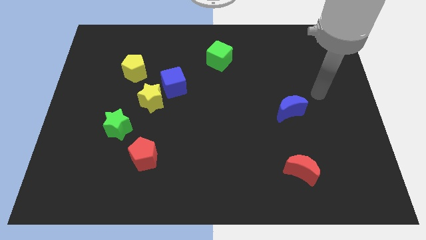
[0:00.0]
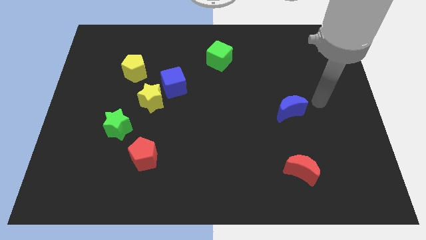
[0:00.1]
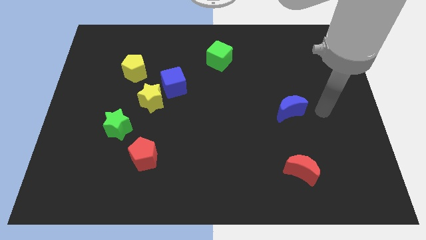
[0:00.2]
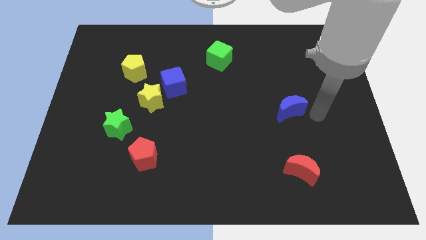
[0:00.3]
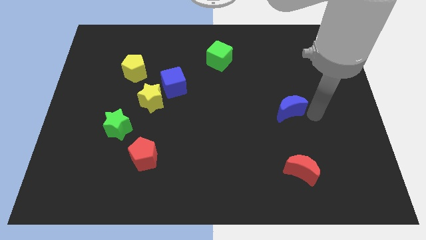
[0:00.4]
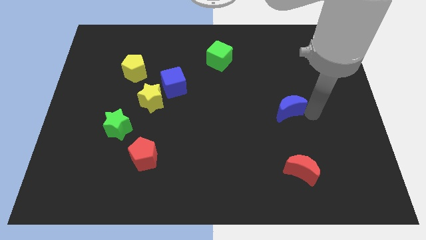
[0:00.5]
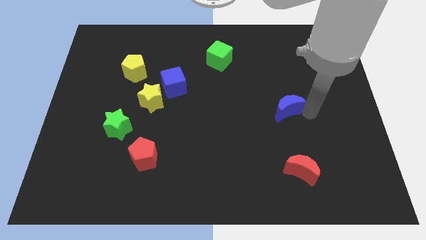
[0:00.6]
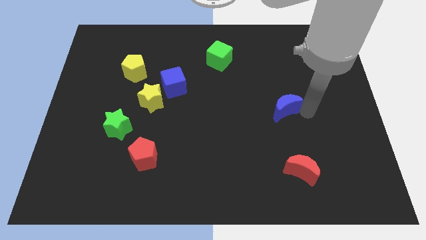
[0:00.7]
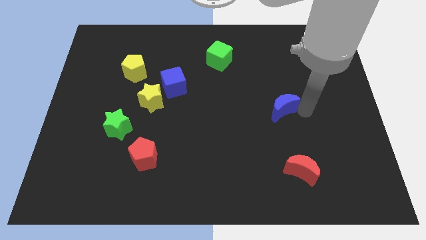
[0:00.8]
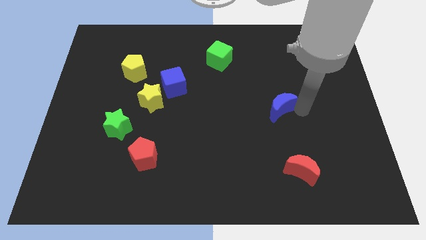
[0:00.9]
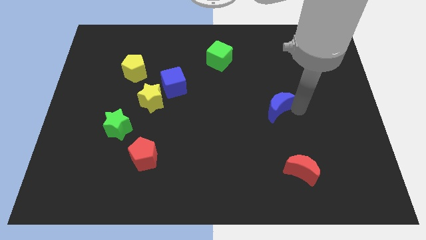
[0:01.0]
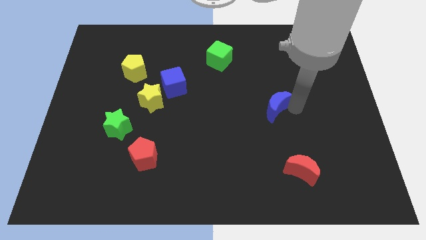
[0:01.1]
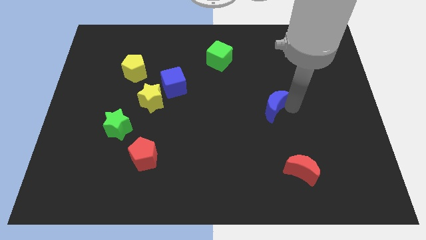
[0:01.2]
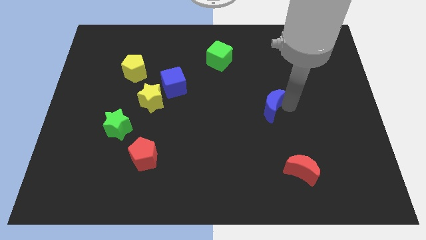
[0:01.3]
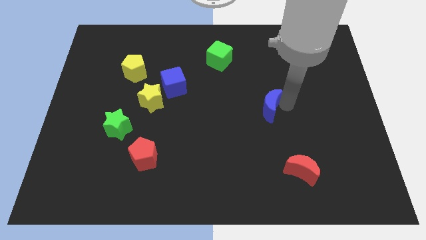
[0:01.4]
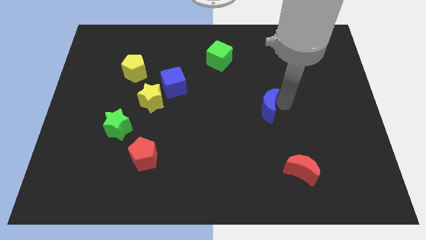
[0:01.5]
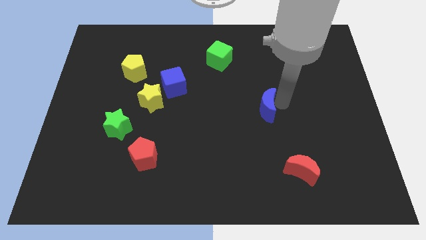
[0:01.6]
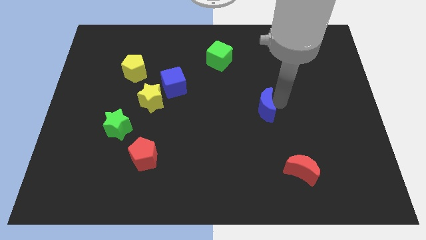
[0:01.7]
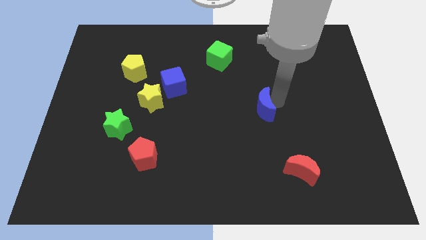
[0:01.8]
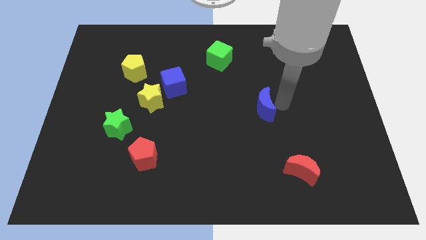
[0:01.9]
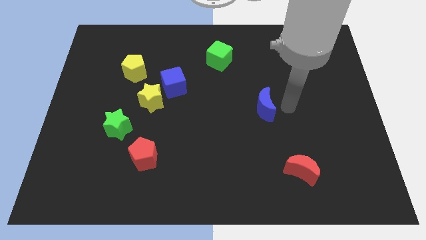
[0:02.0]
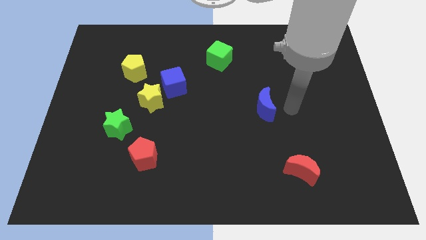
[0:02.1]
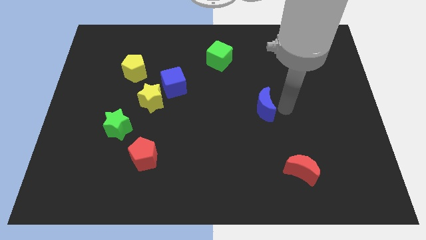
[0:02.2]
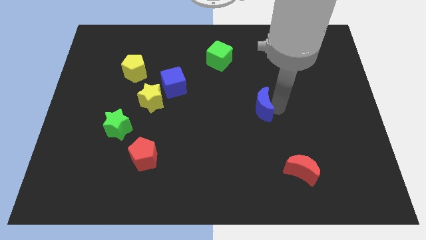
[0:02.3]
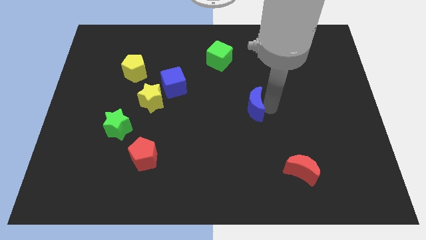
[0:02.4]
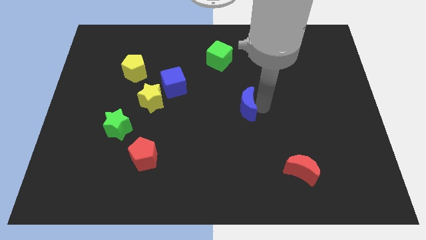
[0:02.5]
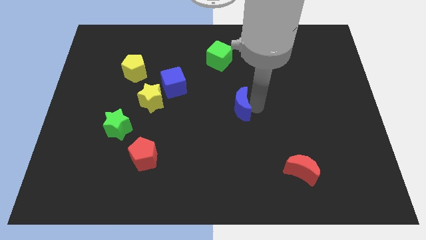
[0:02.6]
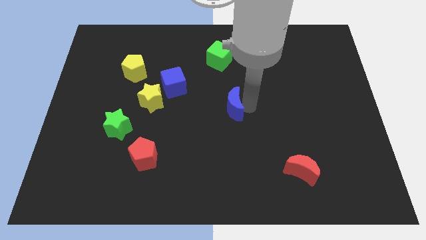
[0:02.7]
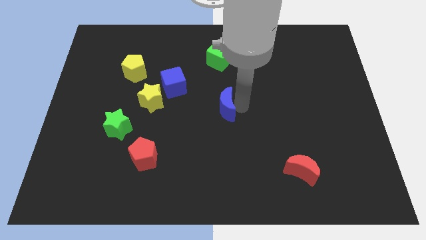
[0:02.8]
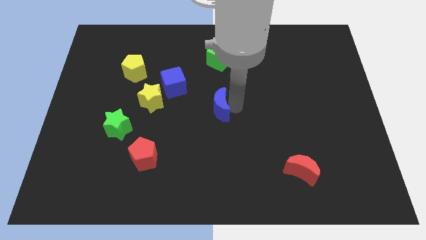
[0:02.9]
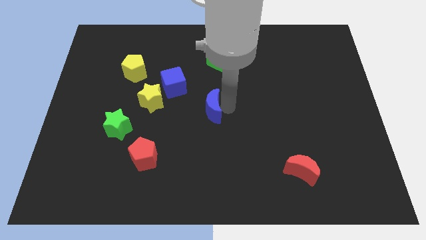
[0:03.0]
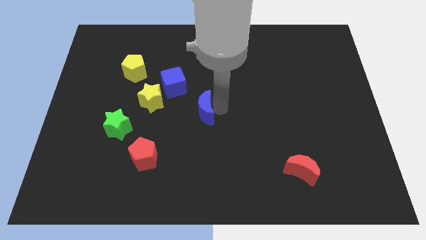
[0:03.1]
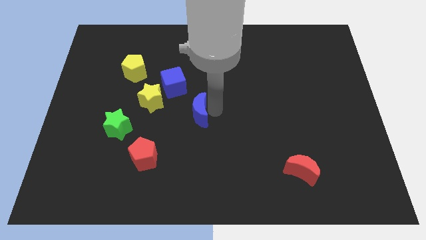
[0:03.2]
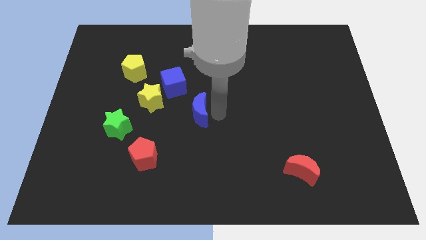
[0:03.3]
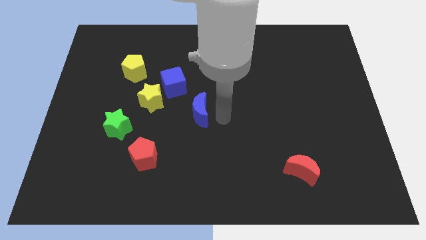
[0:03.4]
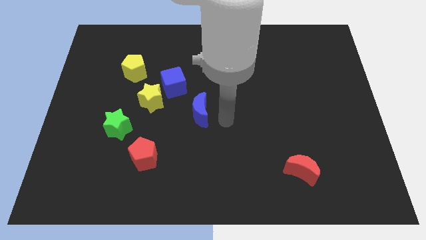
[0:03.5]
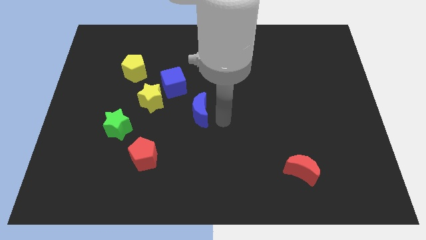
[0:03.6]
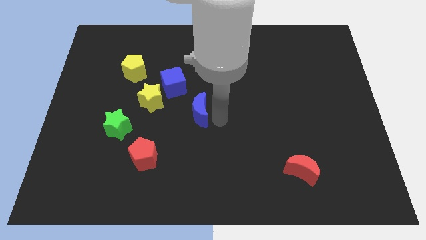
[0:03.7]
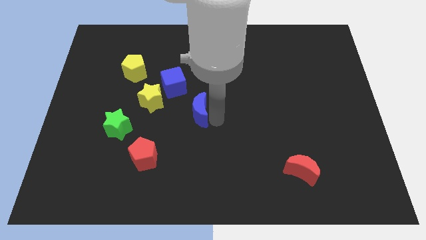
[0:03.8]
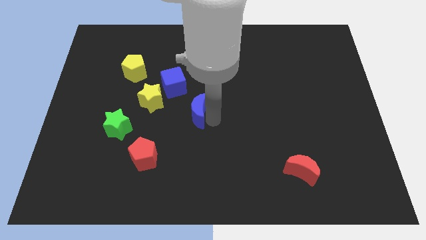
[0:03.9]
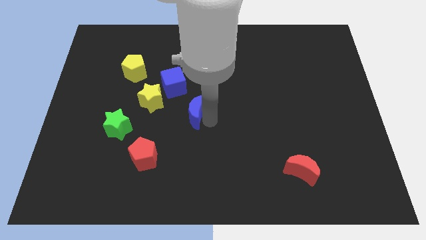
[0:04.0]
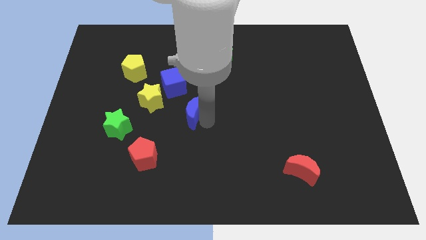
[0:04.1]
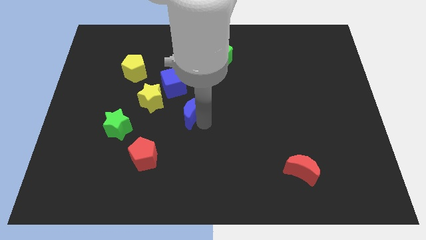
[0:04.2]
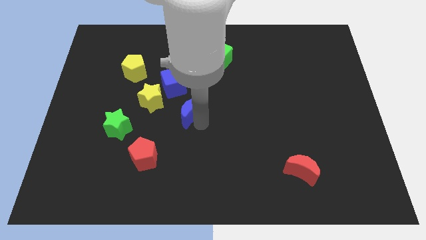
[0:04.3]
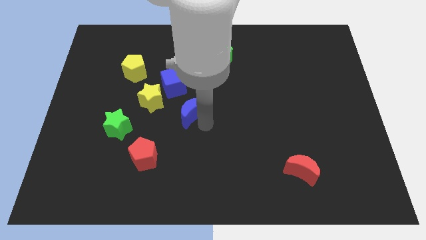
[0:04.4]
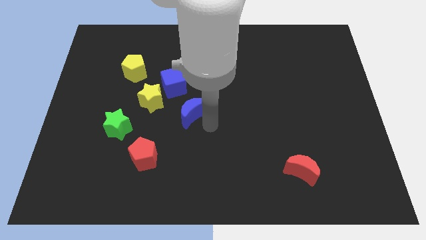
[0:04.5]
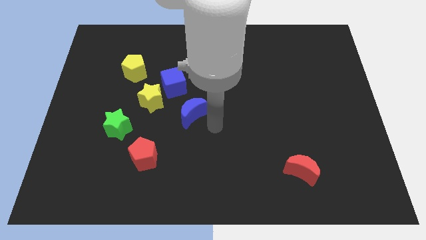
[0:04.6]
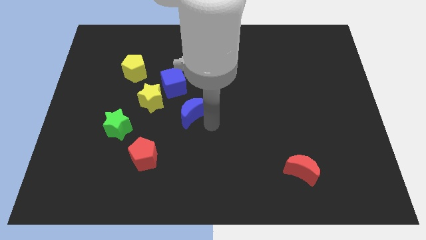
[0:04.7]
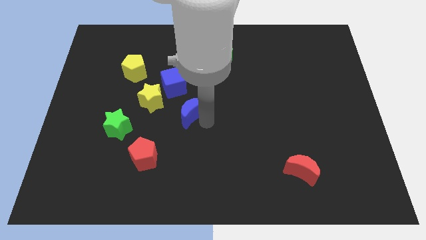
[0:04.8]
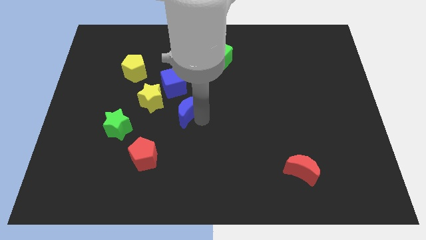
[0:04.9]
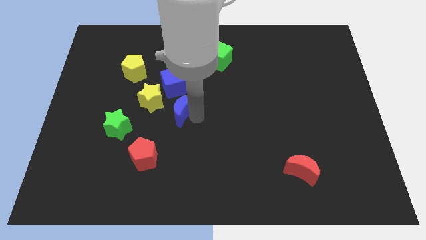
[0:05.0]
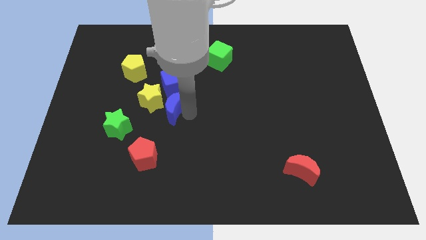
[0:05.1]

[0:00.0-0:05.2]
put the blue moon to the yellow star

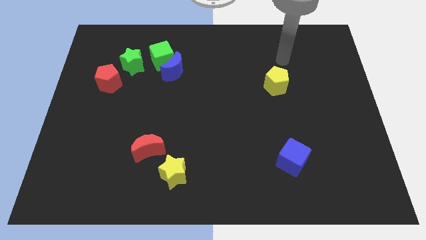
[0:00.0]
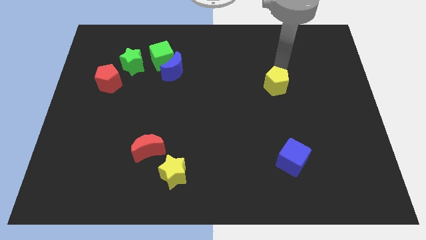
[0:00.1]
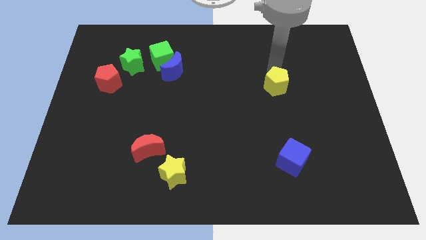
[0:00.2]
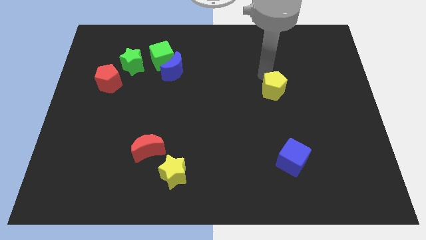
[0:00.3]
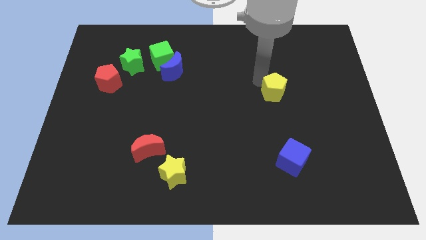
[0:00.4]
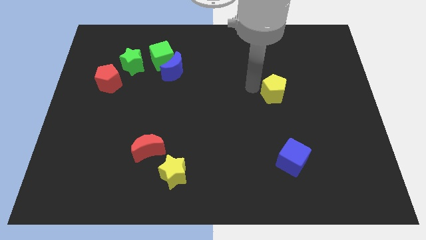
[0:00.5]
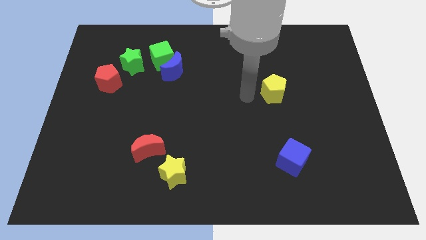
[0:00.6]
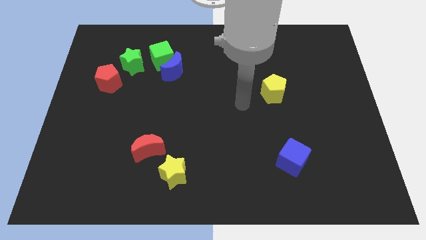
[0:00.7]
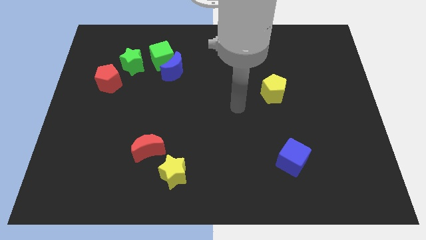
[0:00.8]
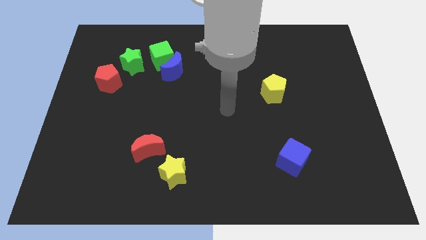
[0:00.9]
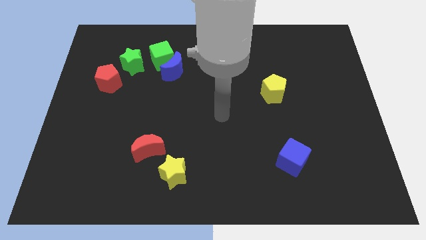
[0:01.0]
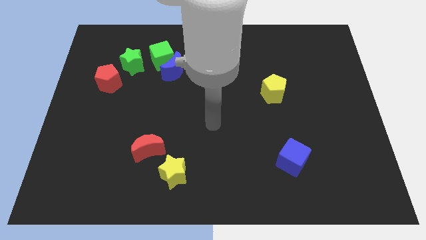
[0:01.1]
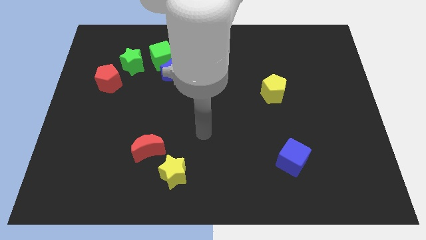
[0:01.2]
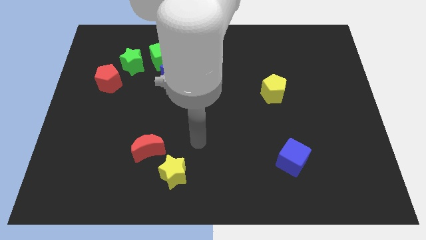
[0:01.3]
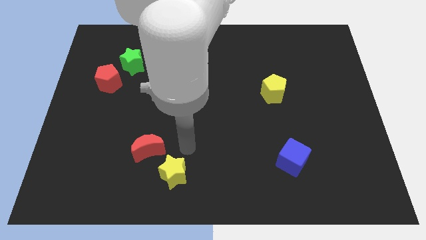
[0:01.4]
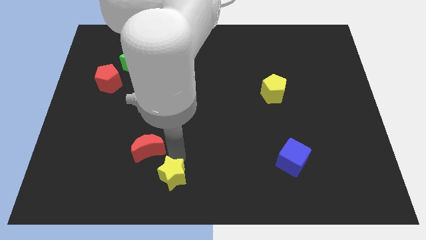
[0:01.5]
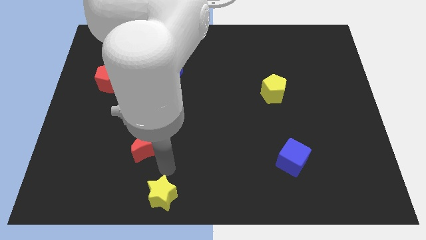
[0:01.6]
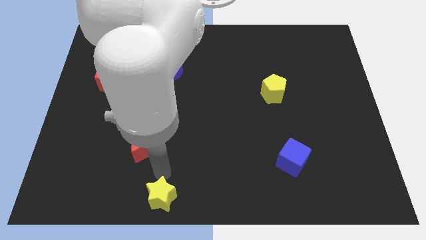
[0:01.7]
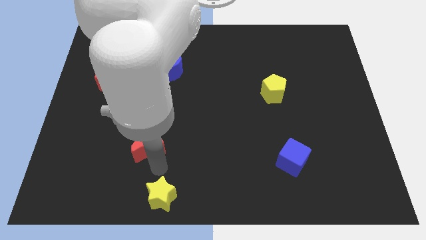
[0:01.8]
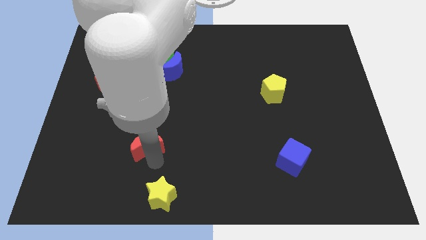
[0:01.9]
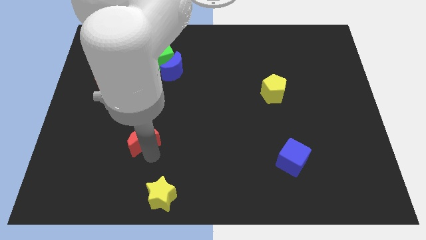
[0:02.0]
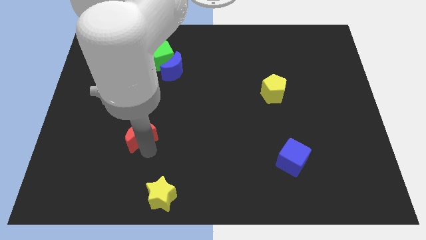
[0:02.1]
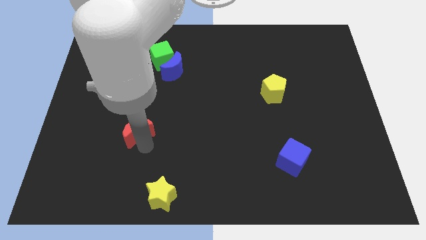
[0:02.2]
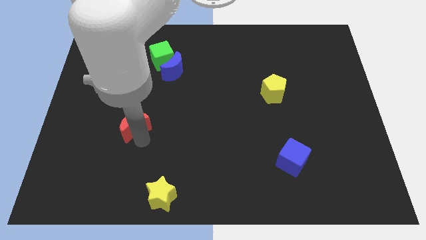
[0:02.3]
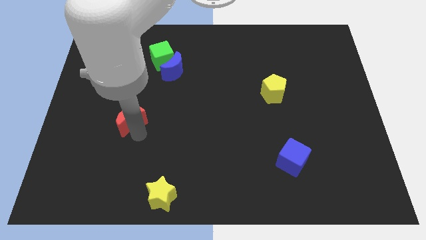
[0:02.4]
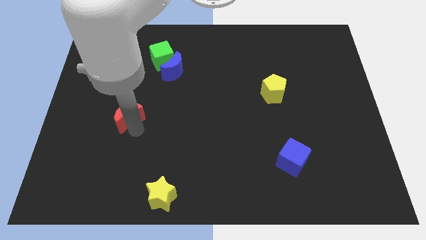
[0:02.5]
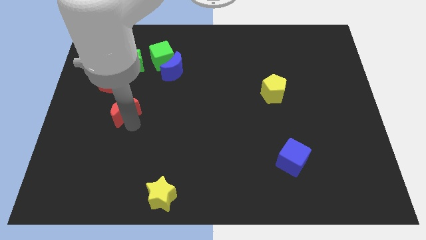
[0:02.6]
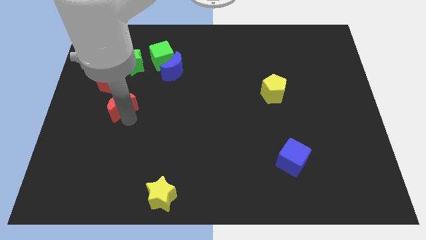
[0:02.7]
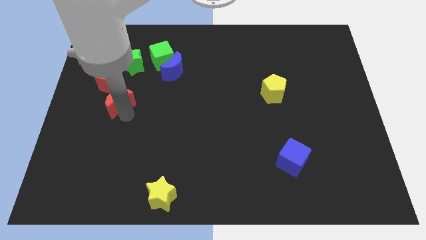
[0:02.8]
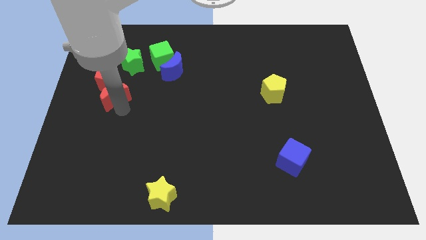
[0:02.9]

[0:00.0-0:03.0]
push the red moon next to the red pentagon
